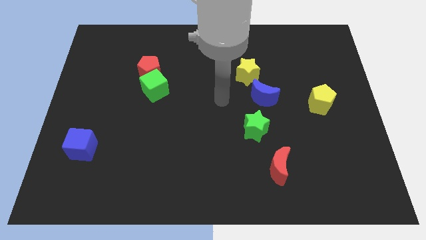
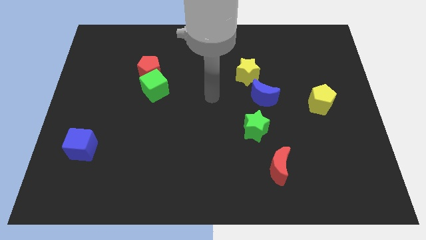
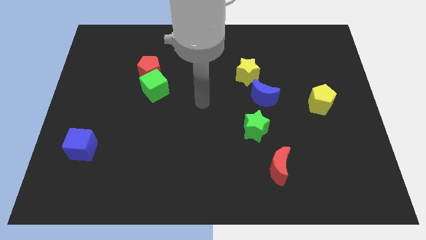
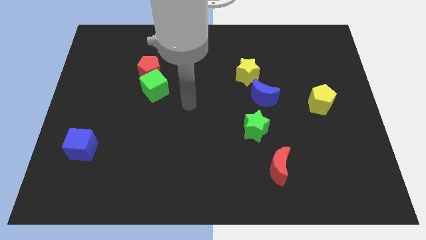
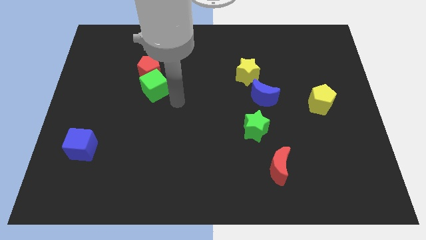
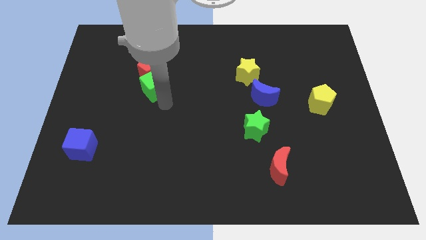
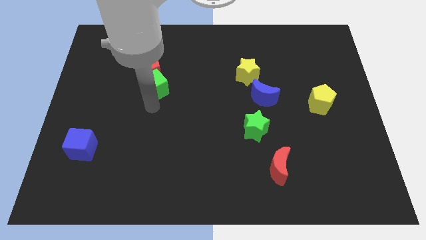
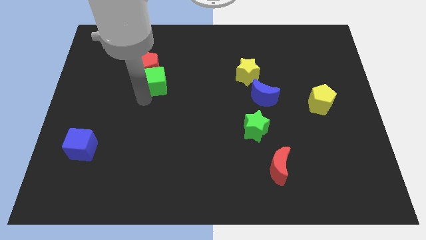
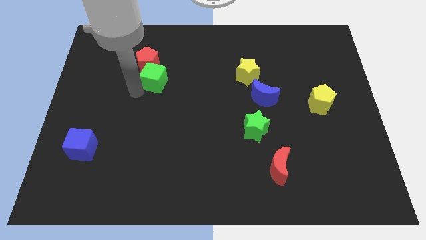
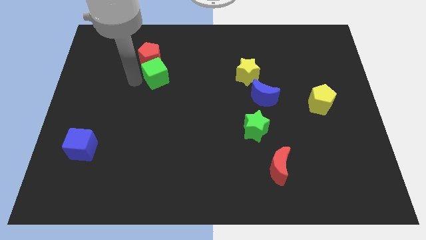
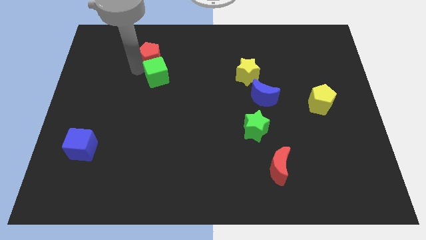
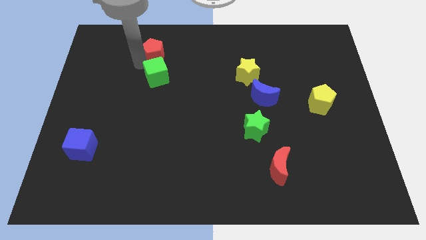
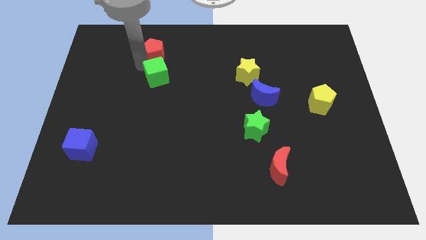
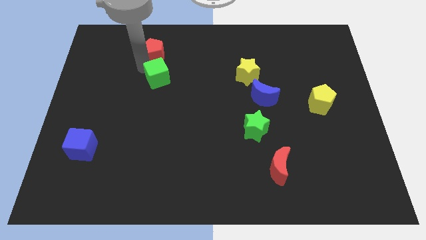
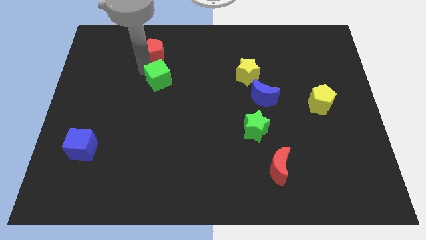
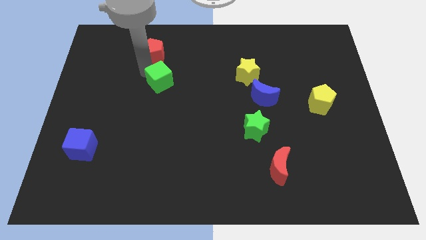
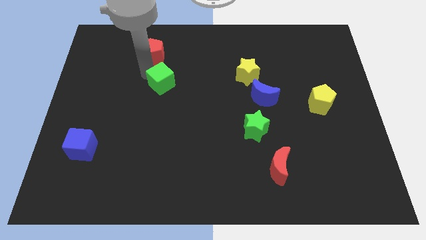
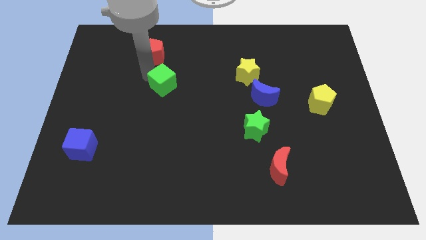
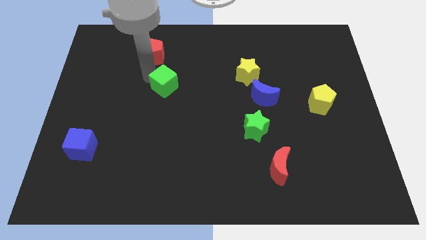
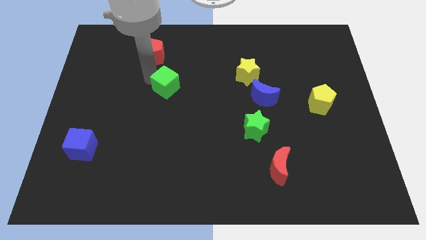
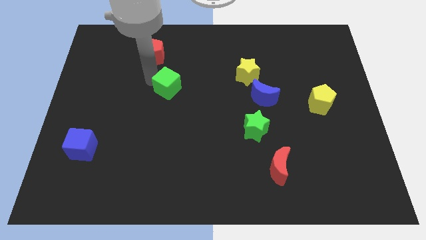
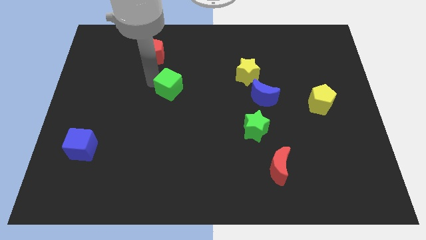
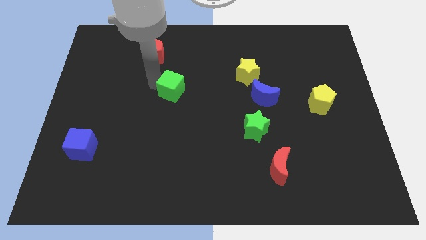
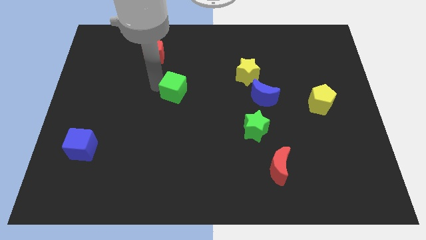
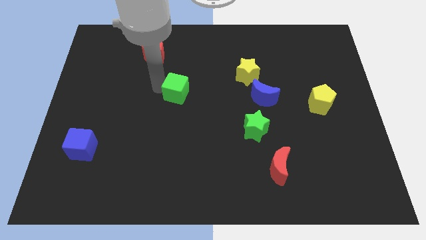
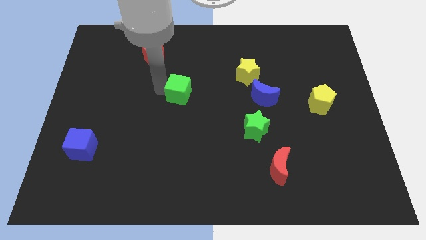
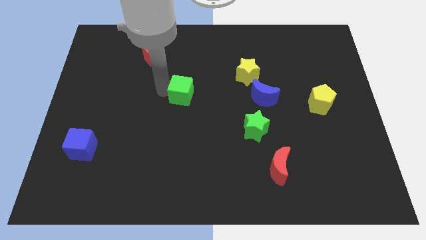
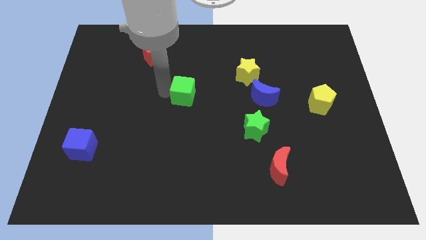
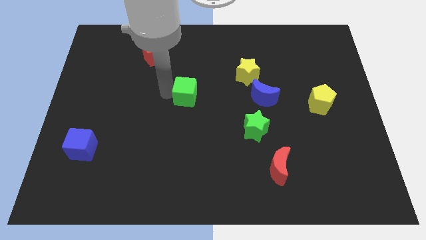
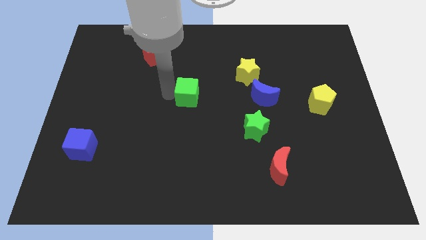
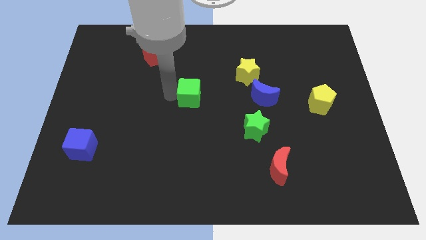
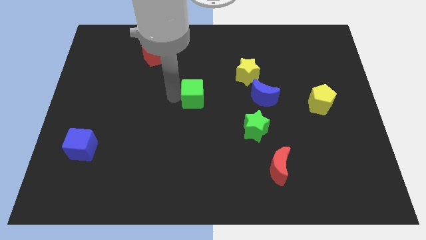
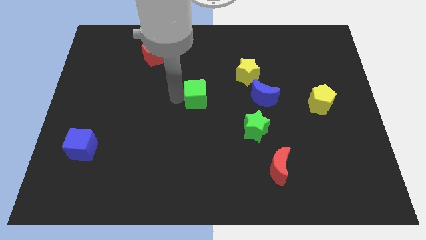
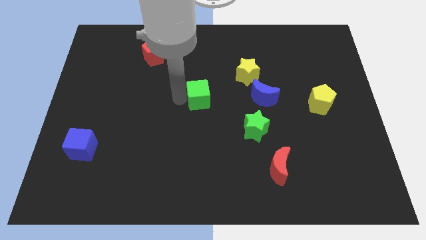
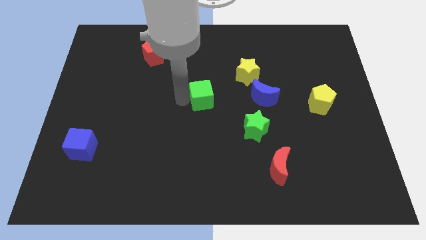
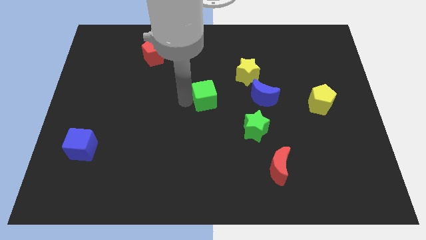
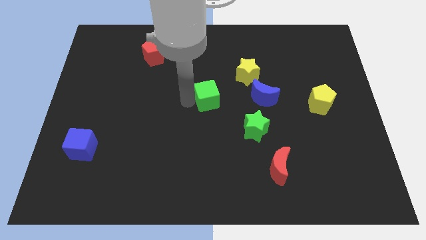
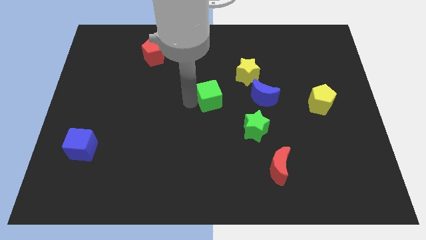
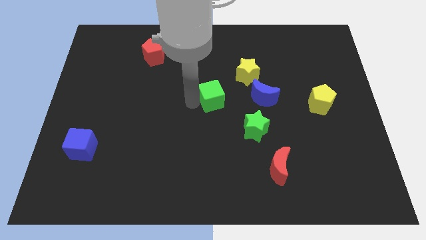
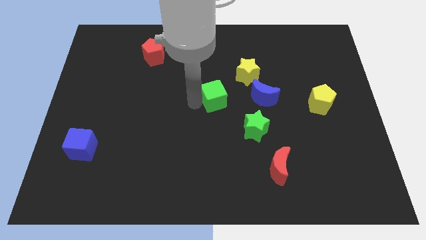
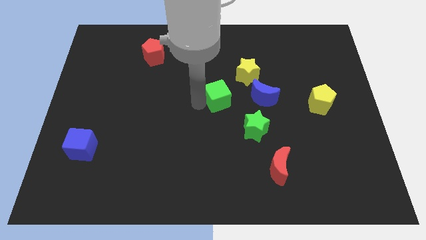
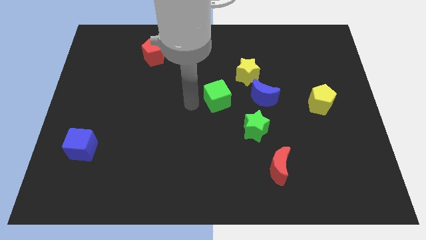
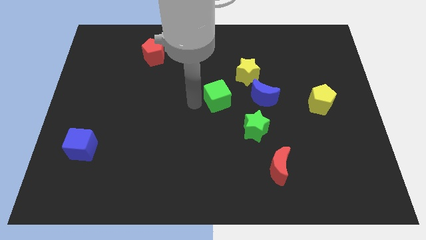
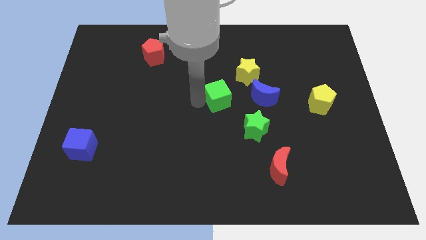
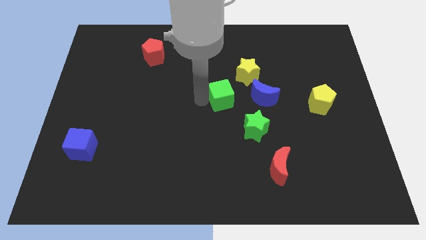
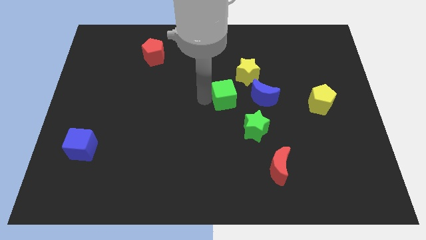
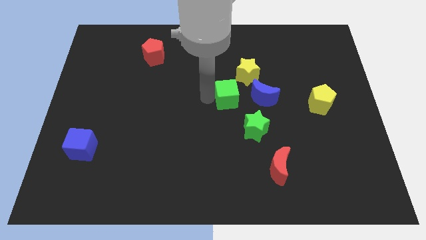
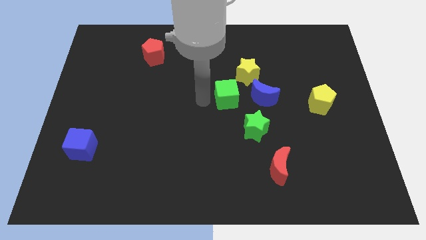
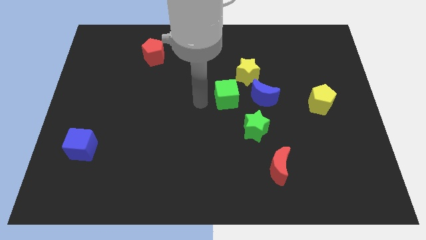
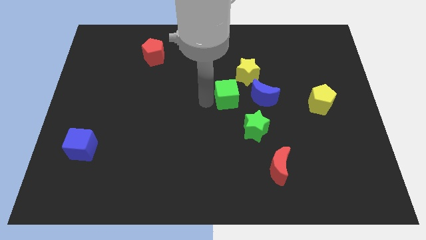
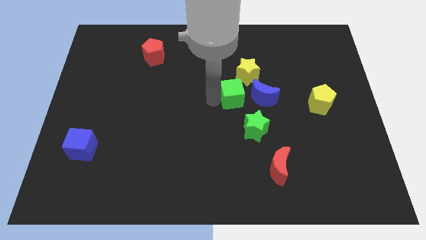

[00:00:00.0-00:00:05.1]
put the green cube above the green star

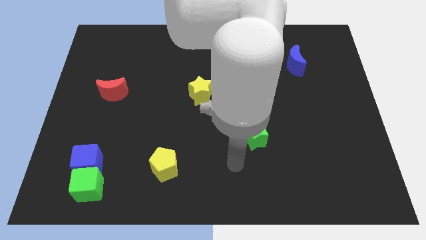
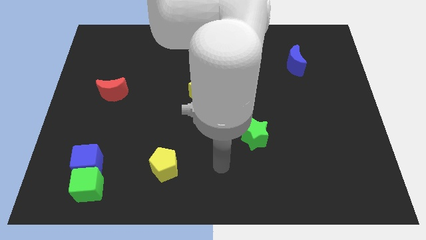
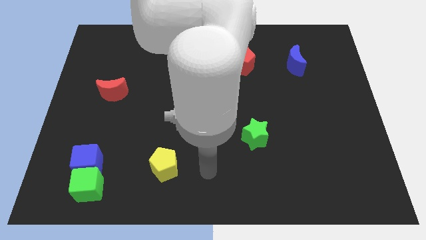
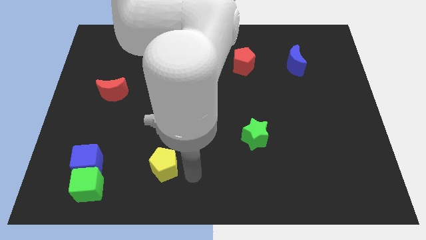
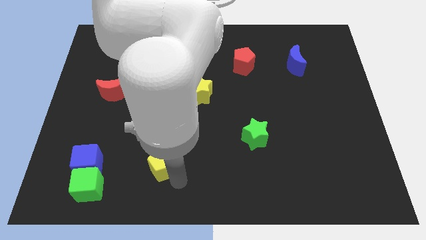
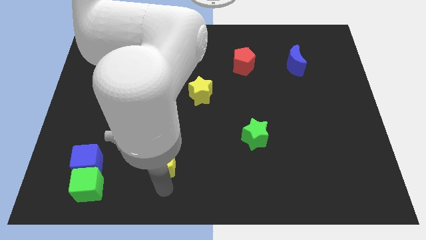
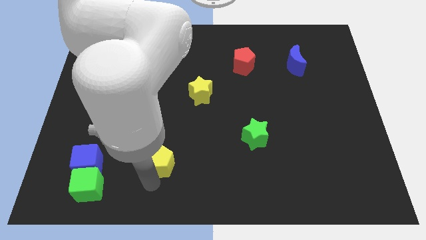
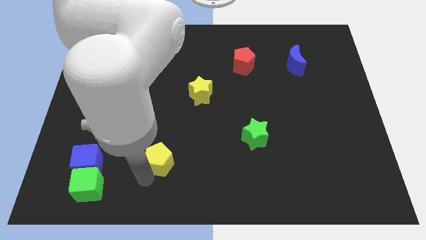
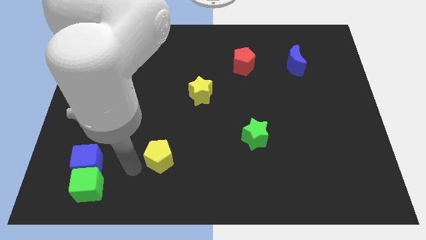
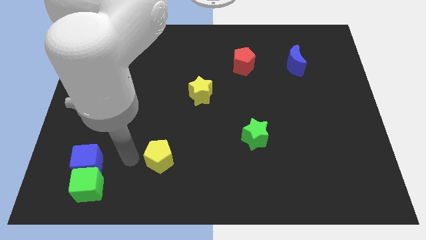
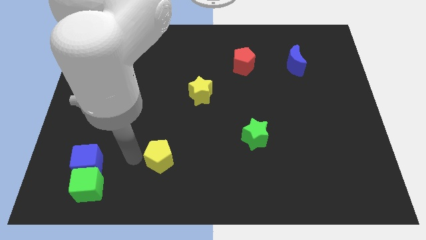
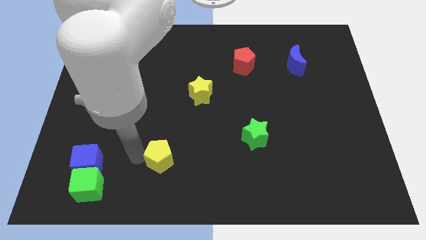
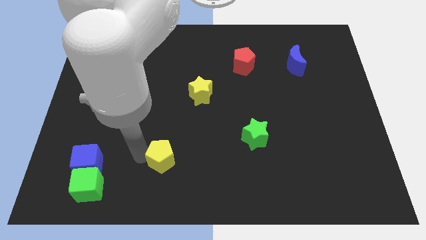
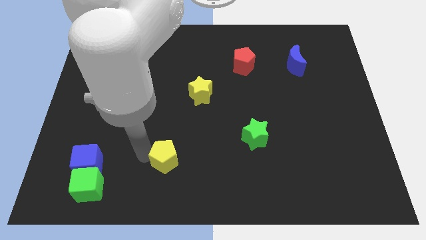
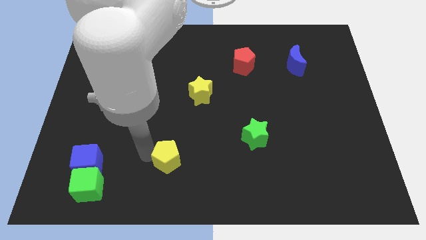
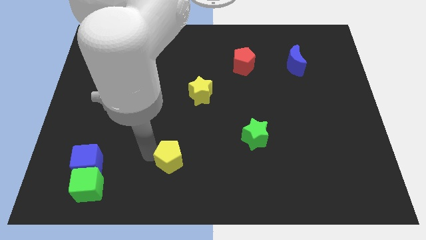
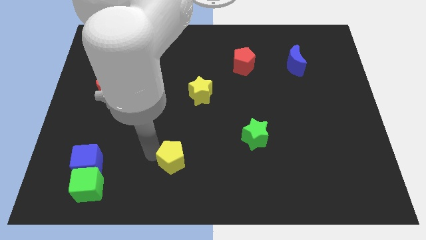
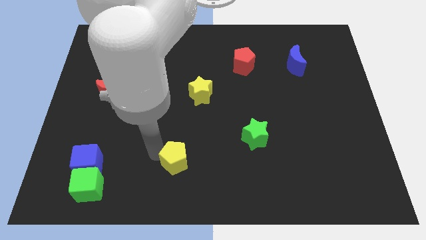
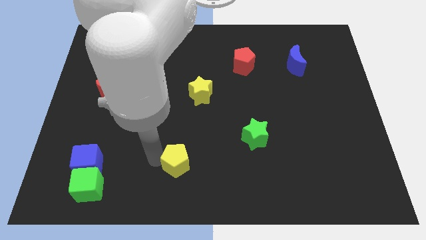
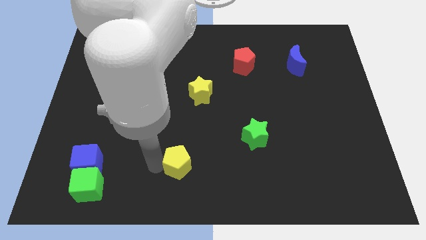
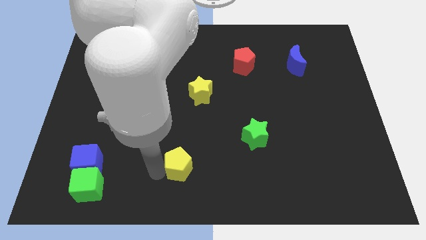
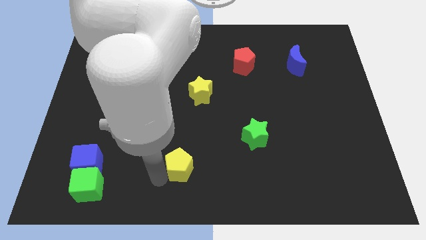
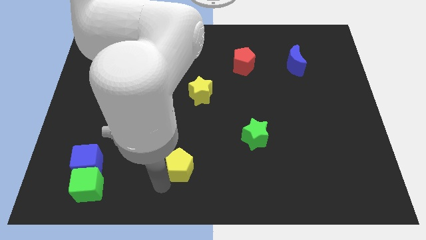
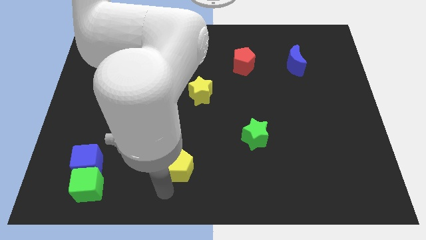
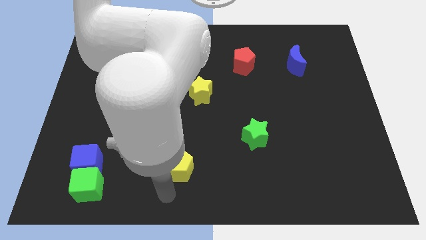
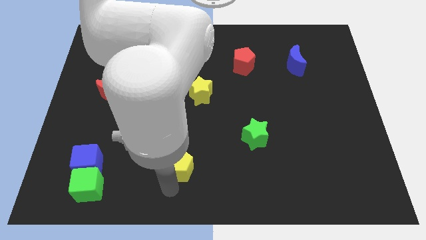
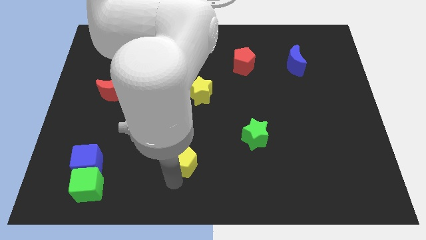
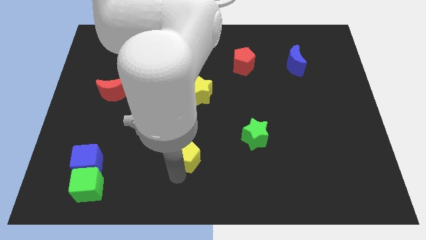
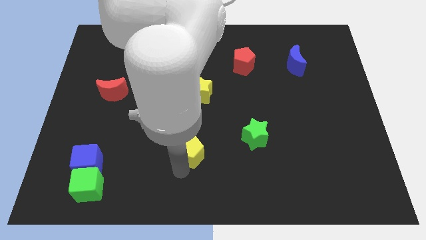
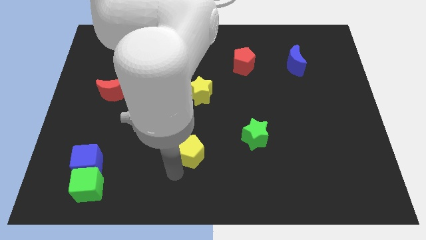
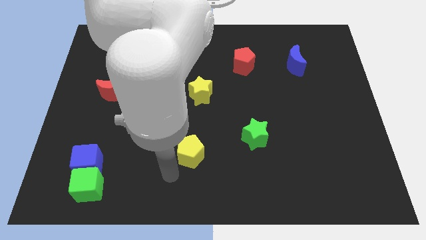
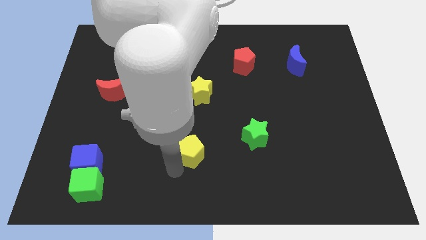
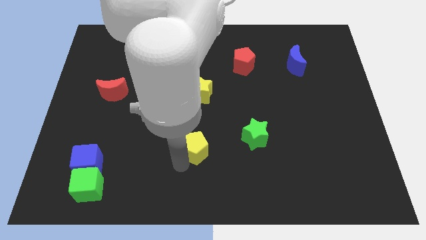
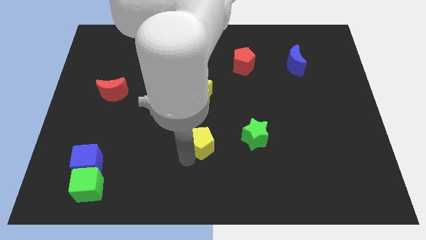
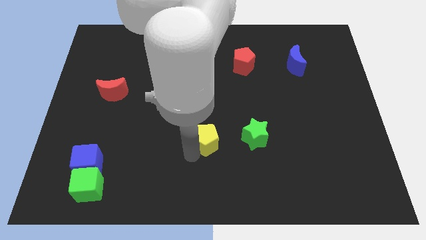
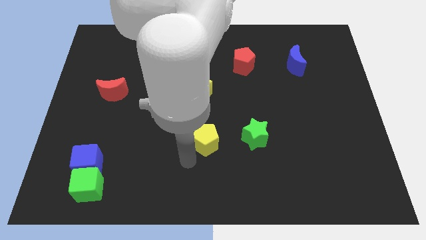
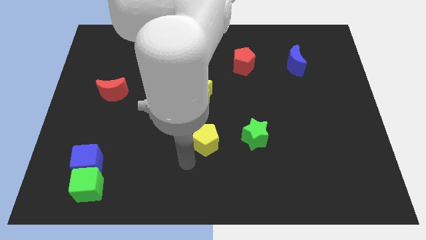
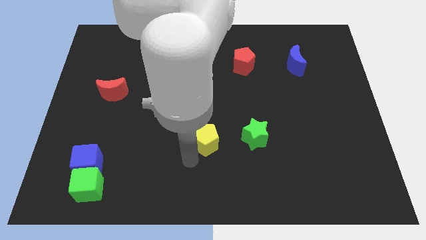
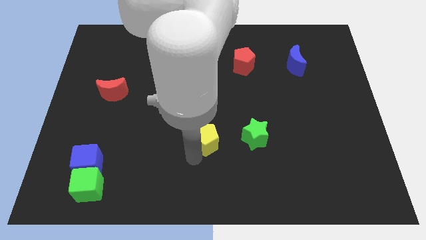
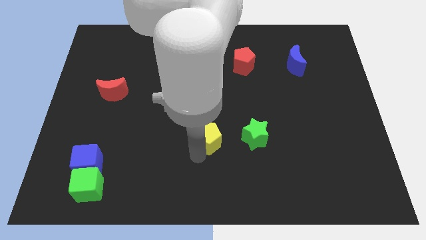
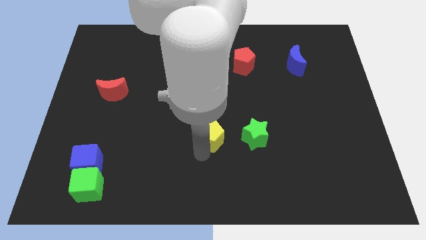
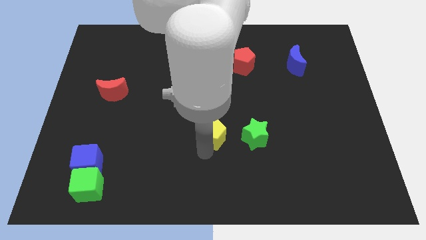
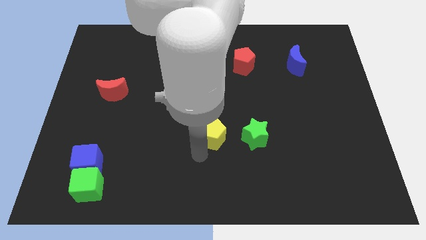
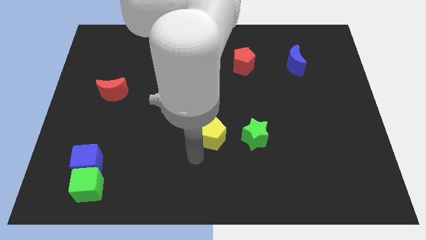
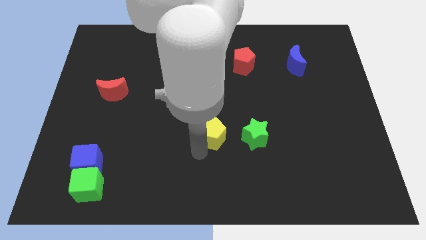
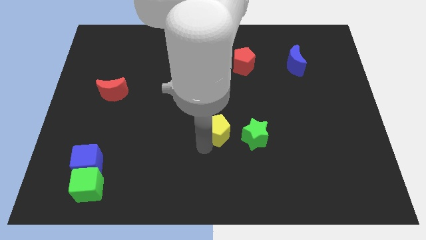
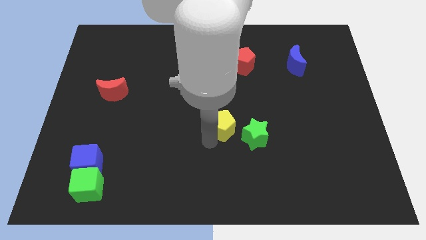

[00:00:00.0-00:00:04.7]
put the yellow pentagon to the top left side of the green star
